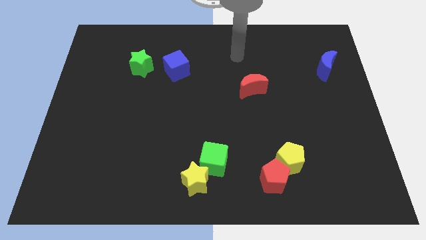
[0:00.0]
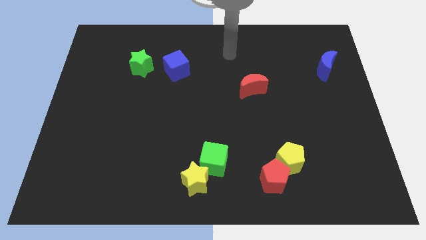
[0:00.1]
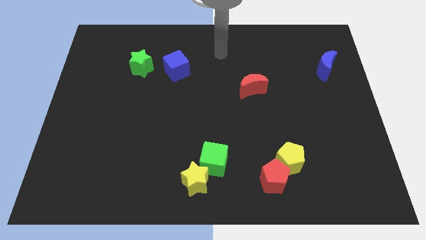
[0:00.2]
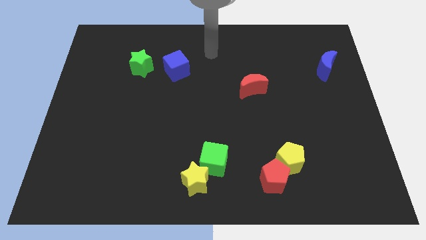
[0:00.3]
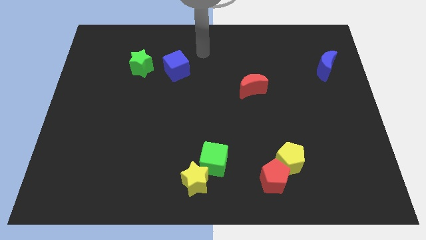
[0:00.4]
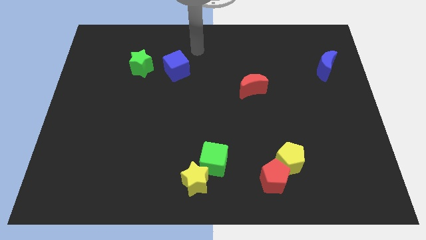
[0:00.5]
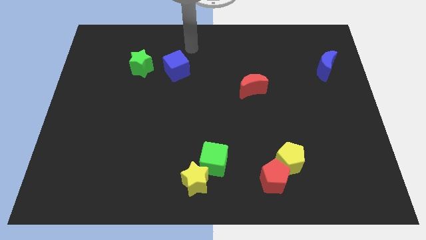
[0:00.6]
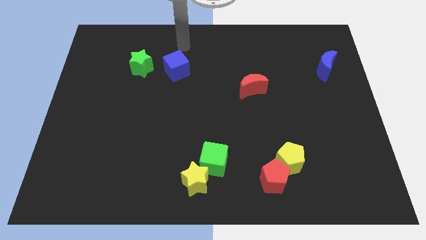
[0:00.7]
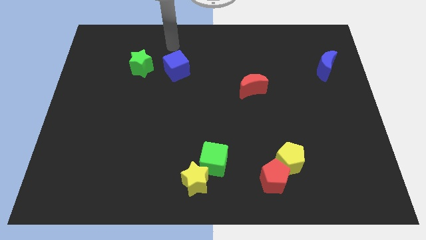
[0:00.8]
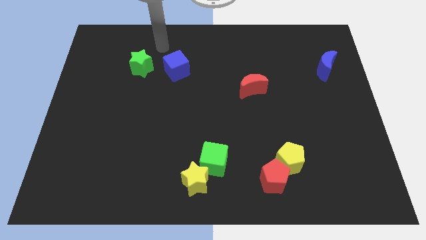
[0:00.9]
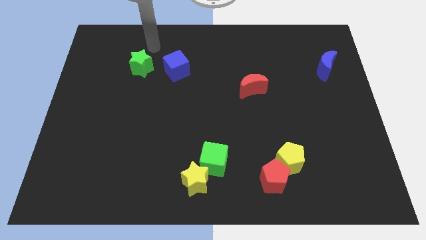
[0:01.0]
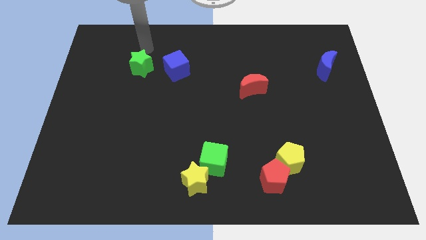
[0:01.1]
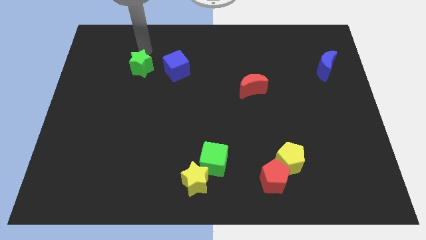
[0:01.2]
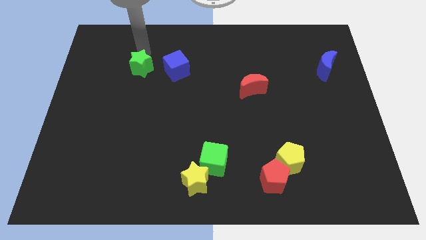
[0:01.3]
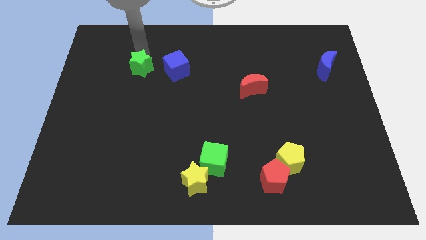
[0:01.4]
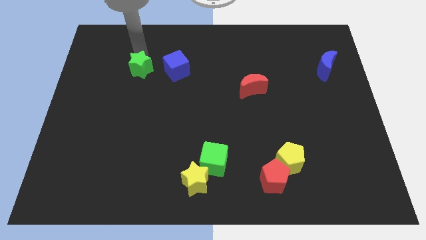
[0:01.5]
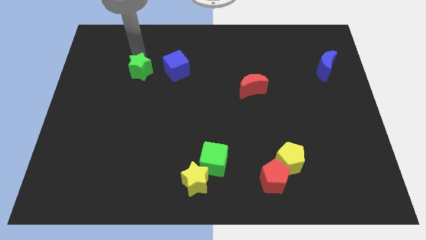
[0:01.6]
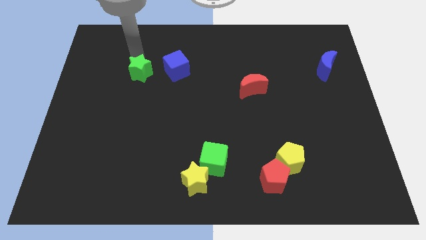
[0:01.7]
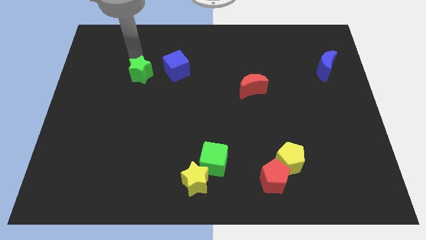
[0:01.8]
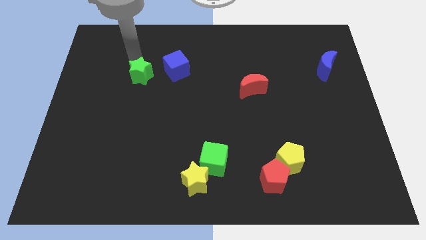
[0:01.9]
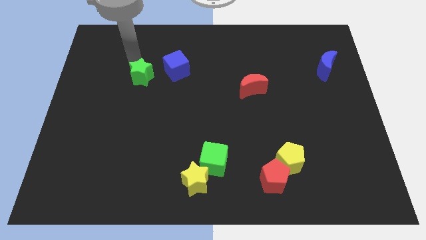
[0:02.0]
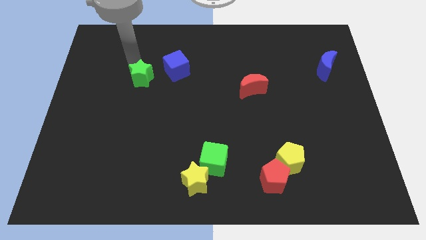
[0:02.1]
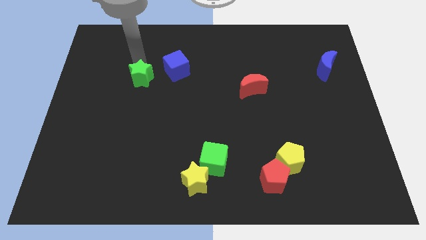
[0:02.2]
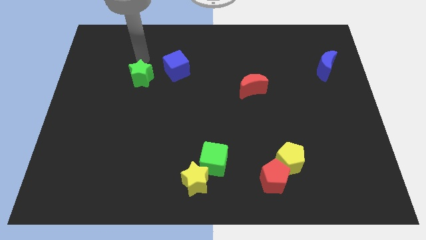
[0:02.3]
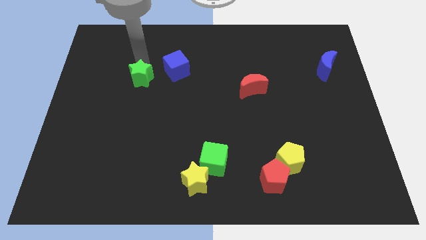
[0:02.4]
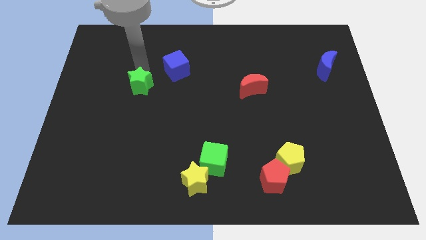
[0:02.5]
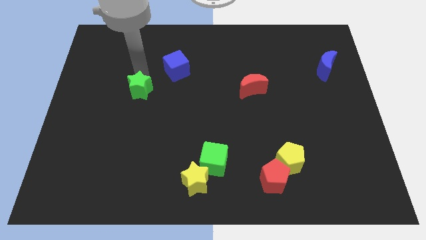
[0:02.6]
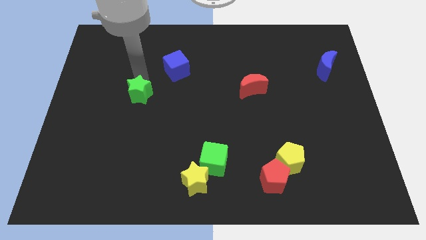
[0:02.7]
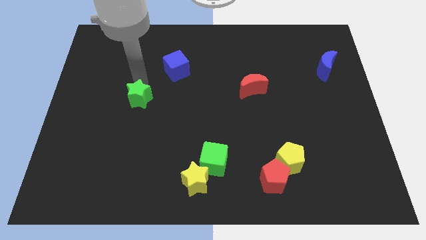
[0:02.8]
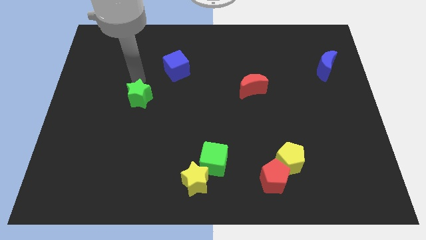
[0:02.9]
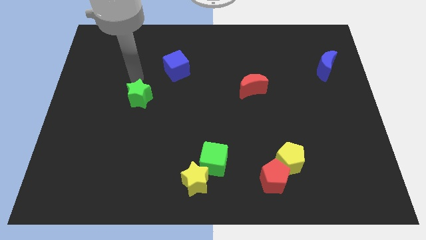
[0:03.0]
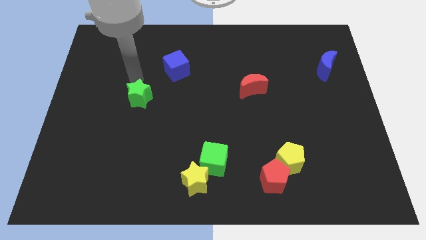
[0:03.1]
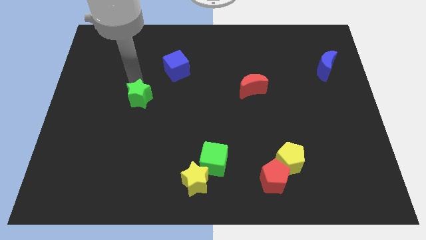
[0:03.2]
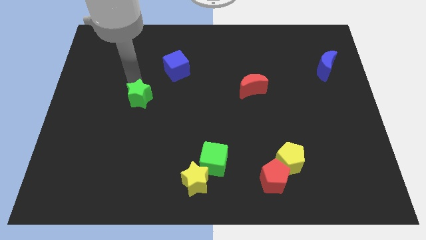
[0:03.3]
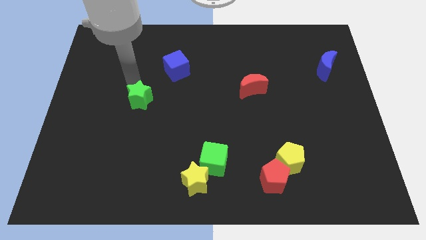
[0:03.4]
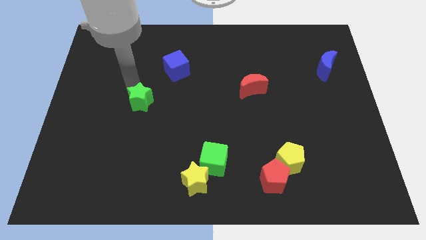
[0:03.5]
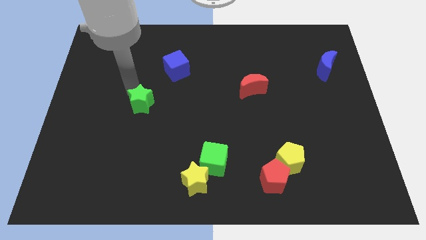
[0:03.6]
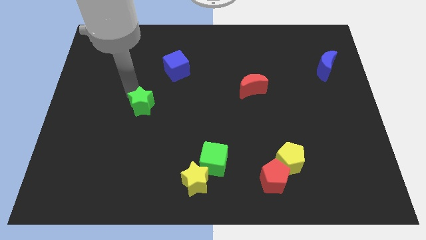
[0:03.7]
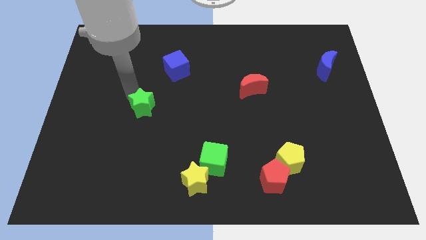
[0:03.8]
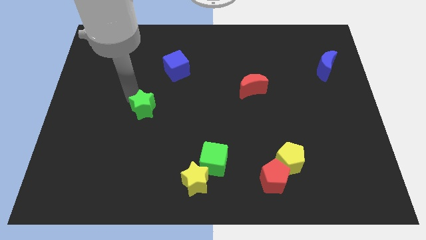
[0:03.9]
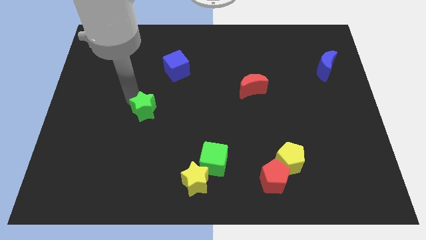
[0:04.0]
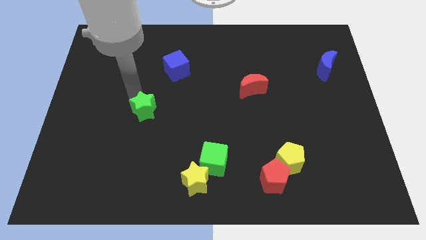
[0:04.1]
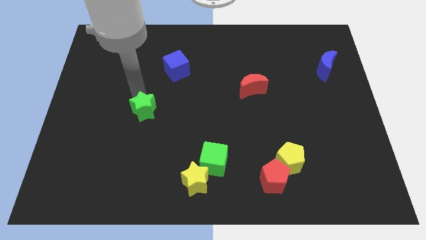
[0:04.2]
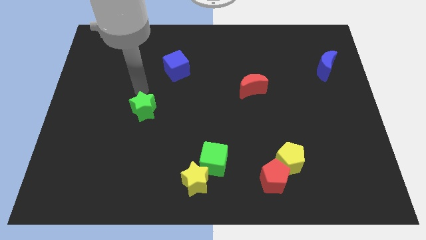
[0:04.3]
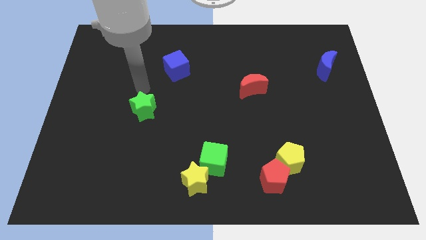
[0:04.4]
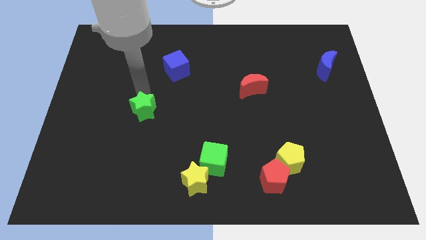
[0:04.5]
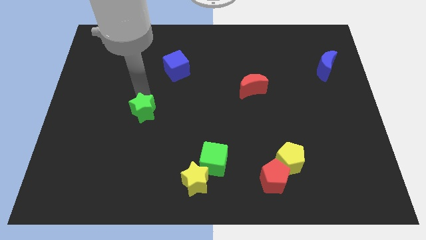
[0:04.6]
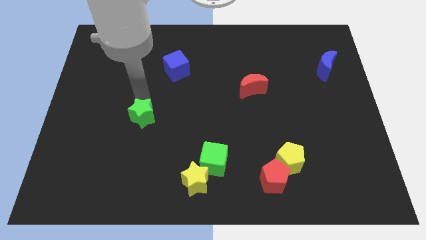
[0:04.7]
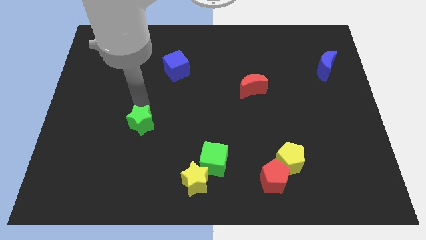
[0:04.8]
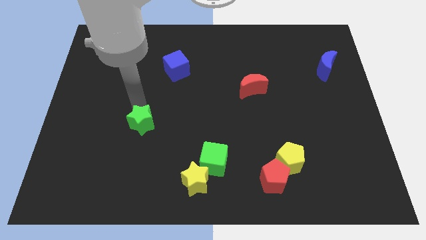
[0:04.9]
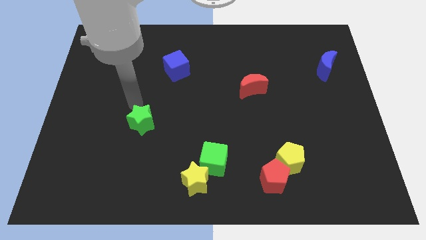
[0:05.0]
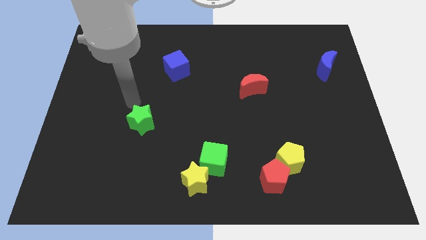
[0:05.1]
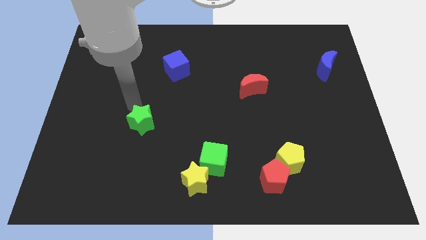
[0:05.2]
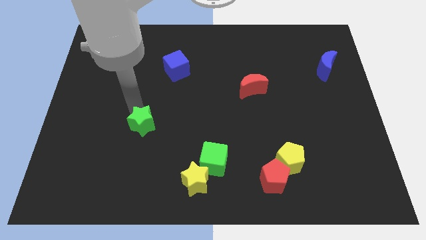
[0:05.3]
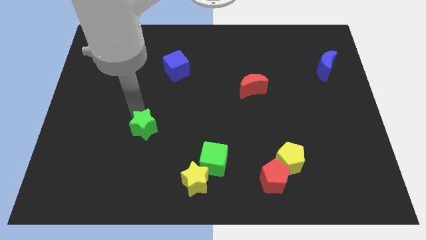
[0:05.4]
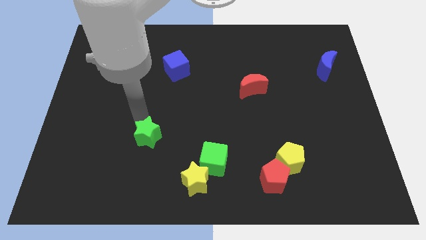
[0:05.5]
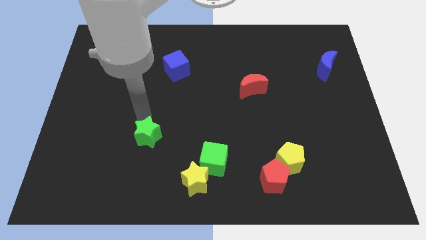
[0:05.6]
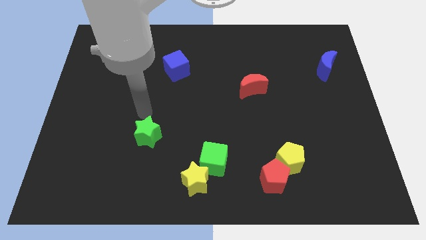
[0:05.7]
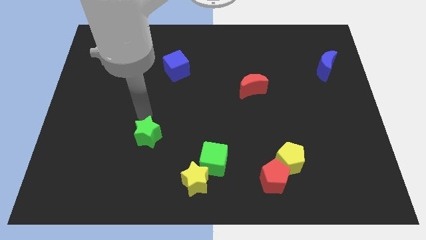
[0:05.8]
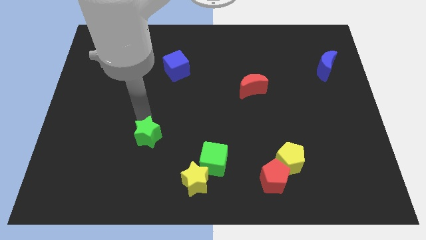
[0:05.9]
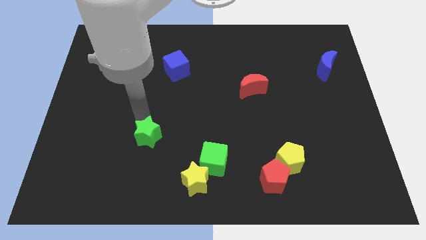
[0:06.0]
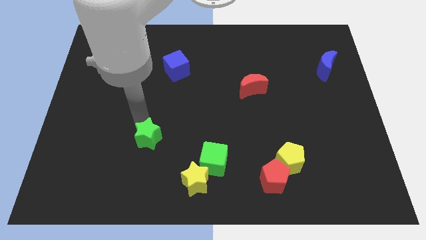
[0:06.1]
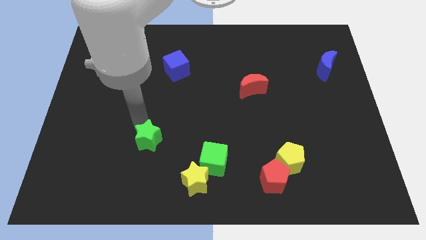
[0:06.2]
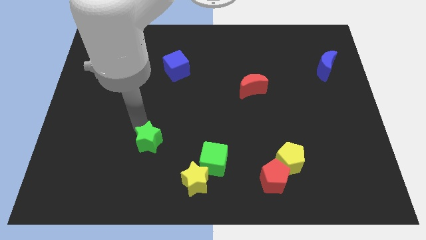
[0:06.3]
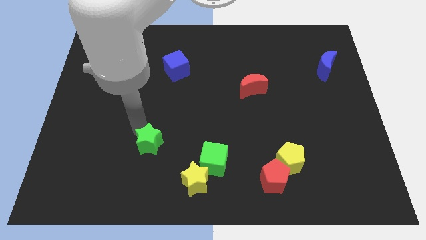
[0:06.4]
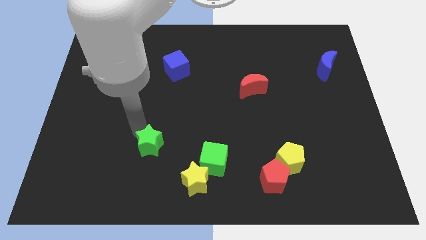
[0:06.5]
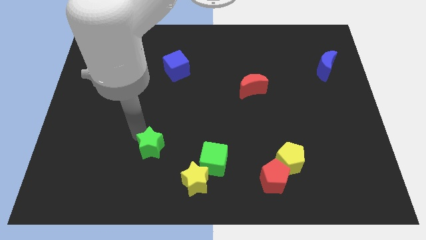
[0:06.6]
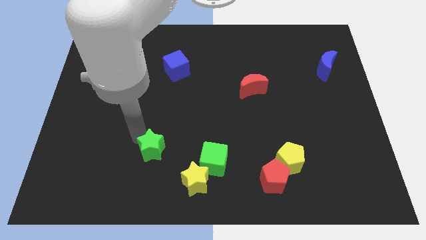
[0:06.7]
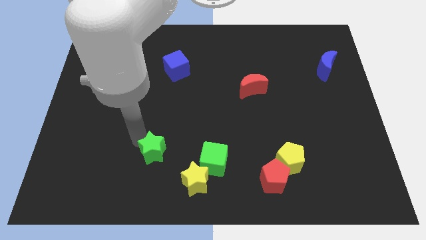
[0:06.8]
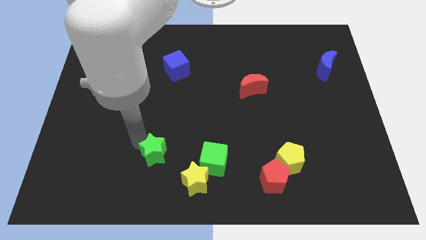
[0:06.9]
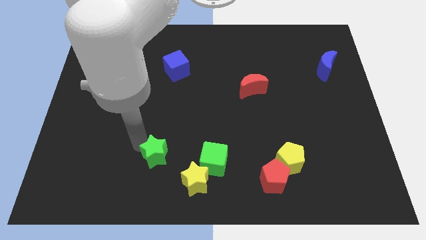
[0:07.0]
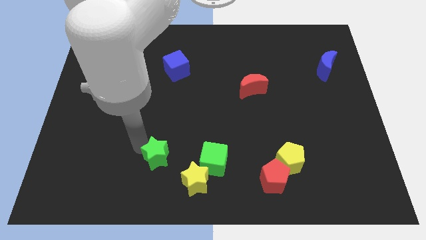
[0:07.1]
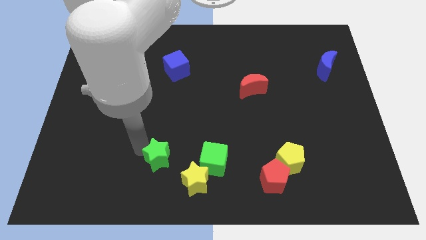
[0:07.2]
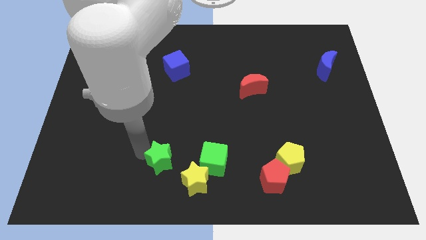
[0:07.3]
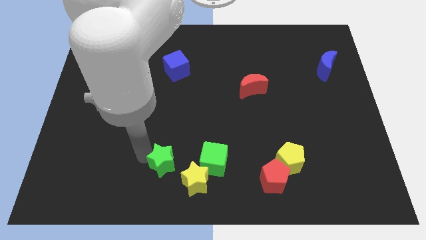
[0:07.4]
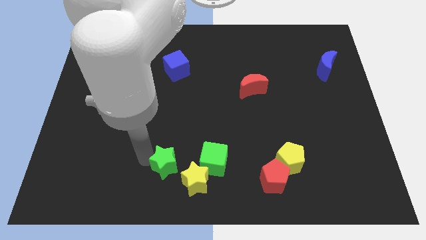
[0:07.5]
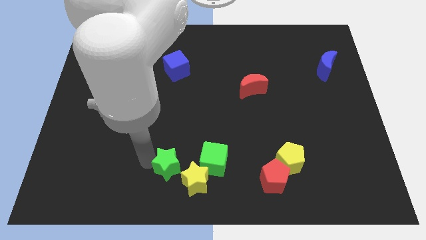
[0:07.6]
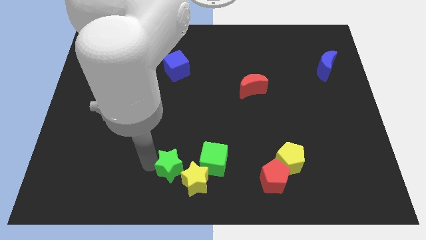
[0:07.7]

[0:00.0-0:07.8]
slide the green star to the bottom side
